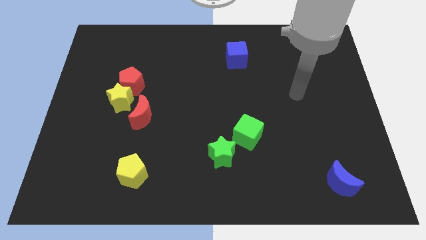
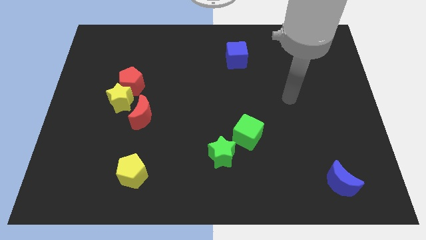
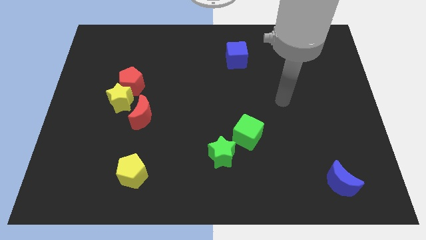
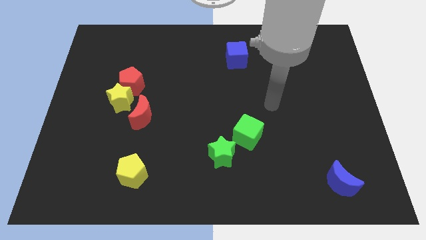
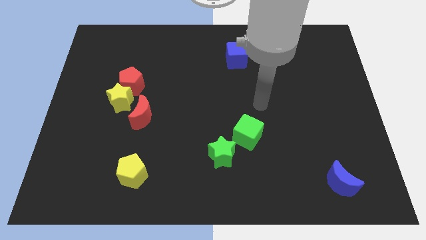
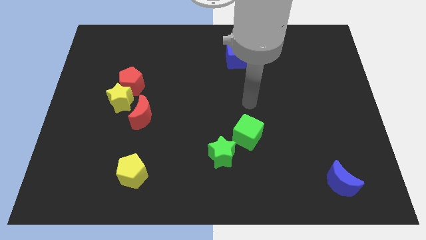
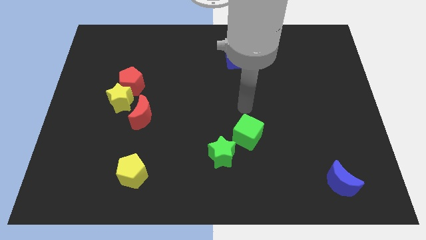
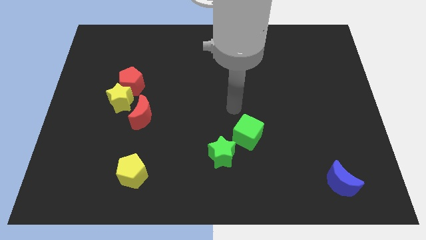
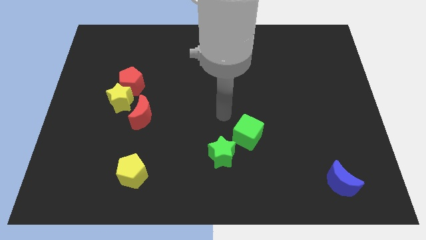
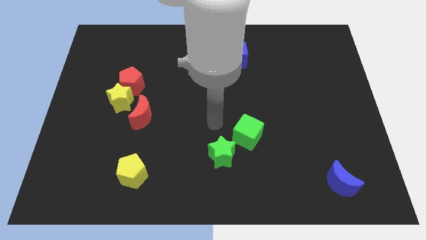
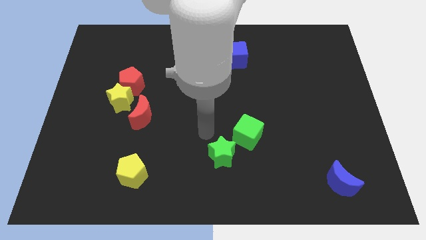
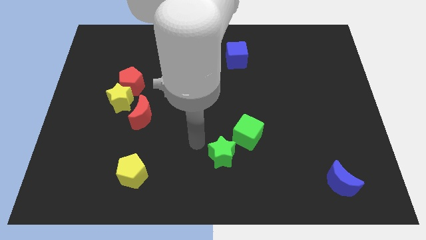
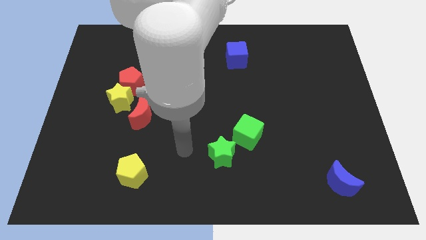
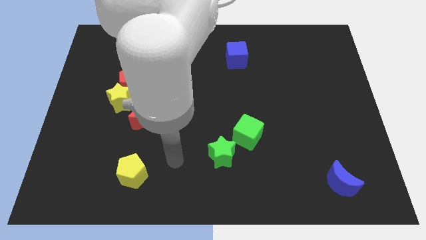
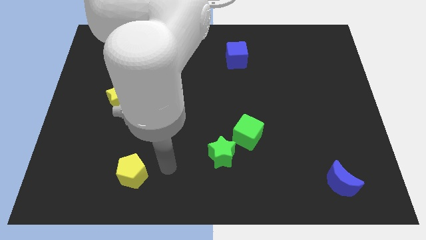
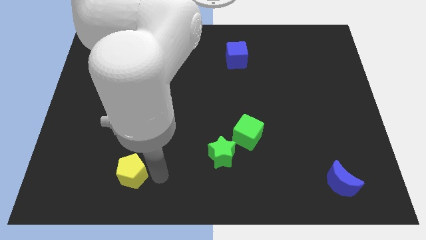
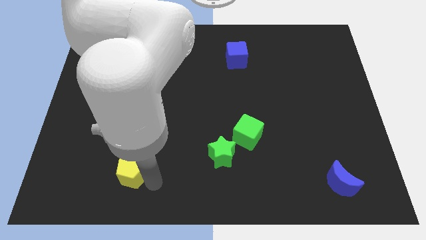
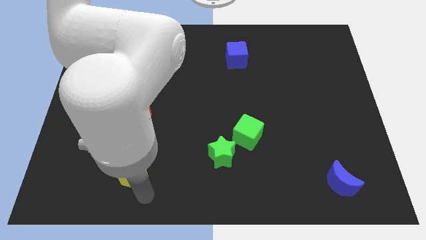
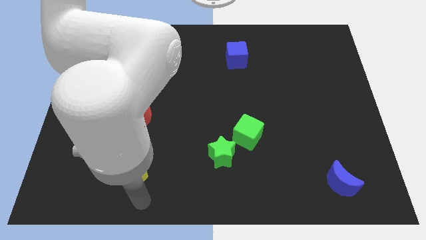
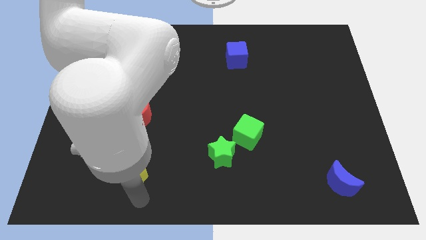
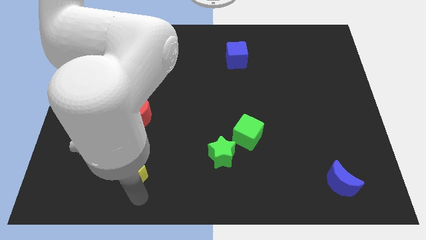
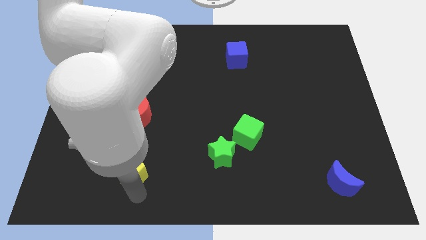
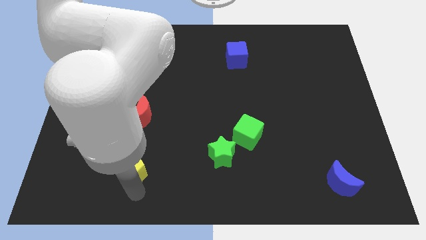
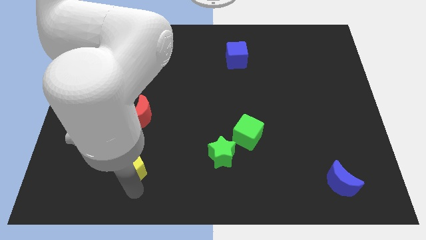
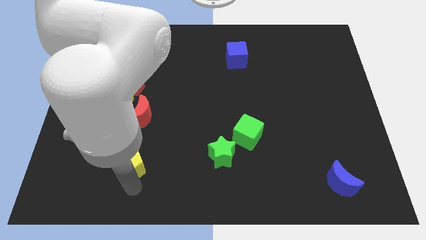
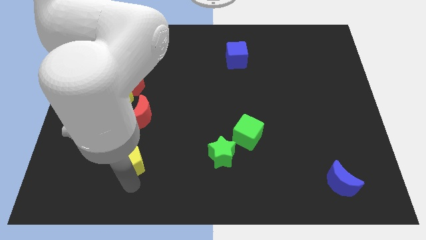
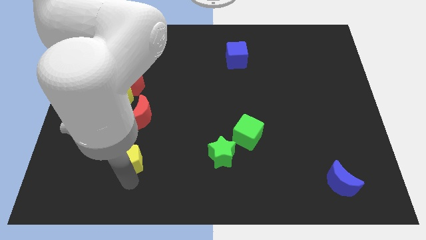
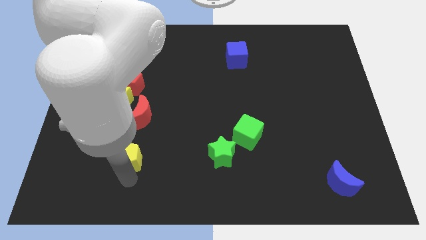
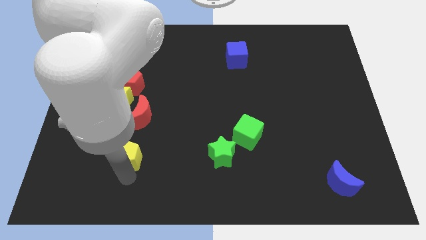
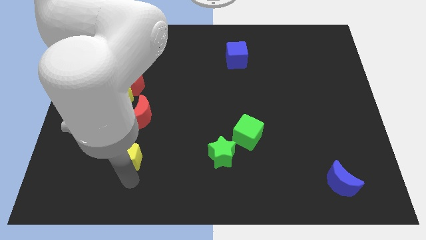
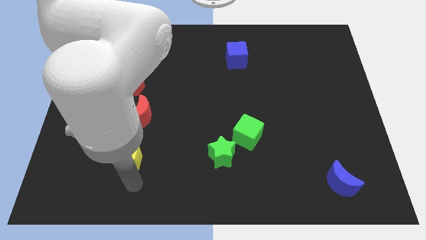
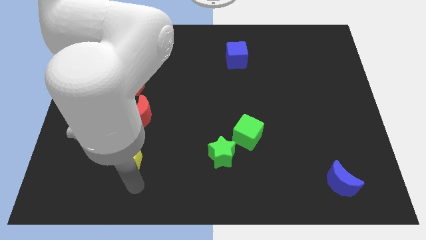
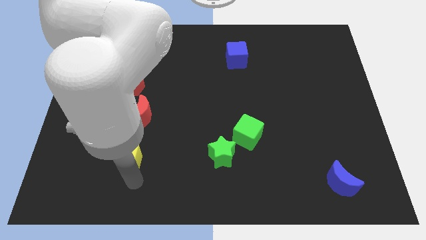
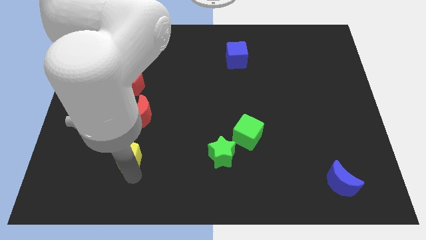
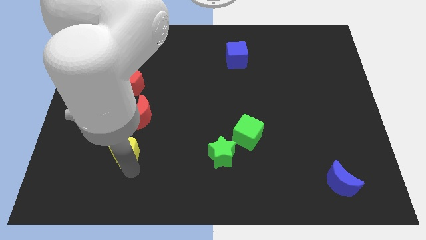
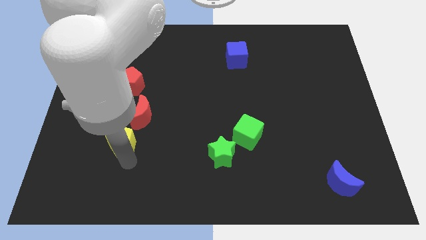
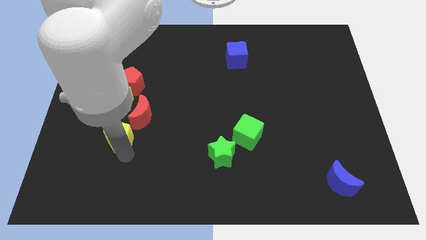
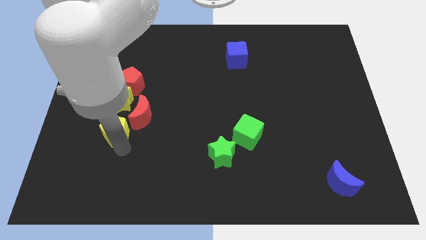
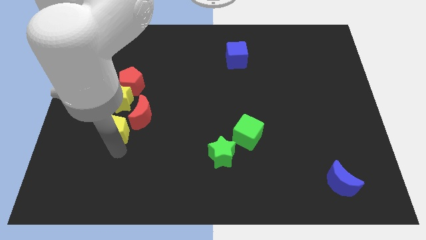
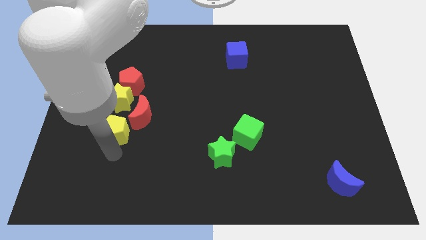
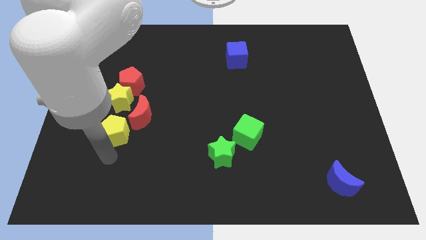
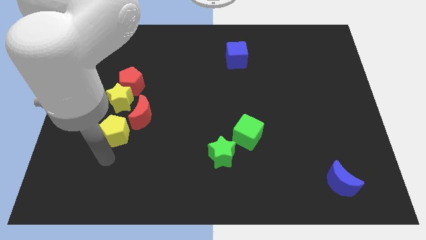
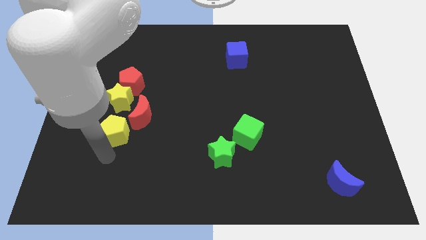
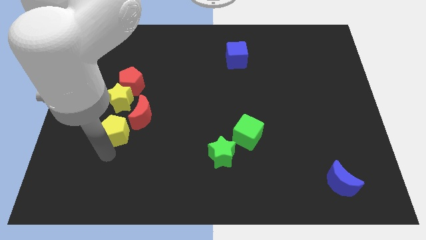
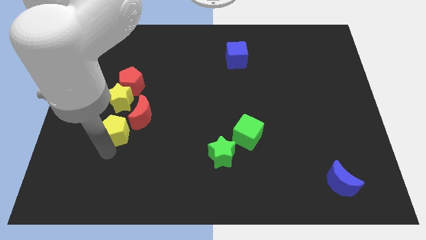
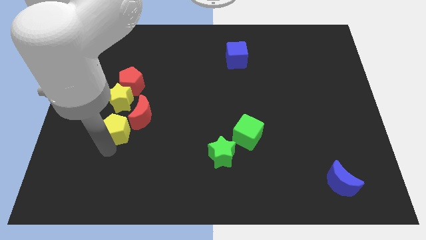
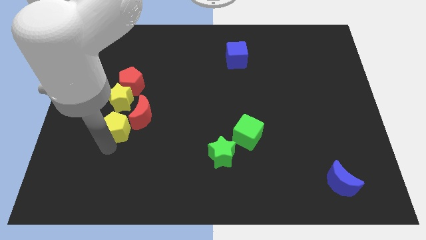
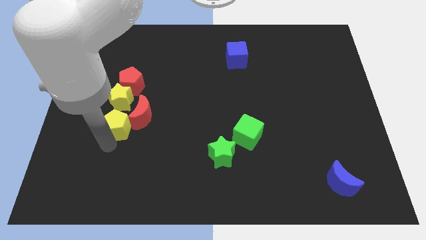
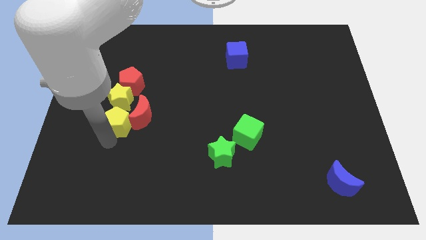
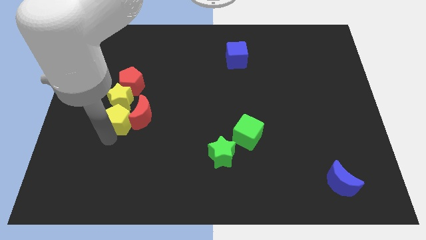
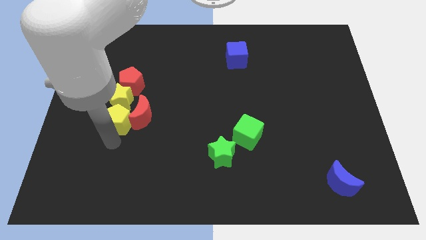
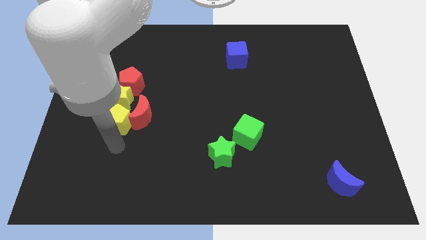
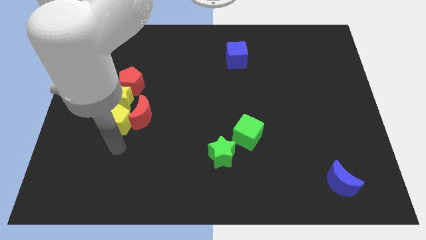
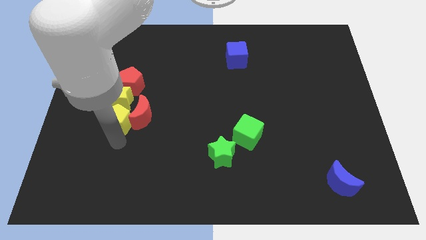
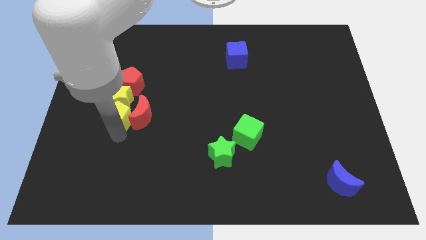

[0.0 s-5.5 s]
move the yellow pentagon close to the yellow star
